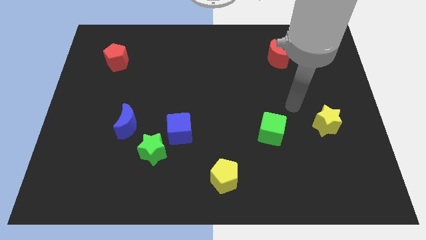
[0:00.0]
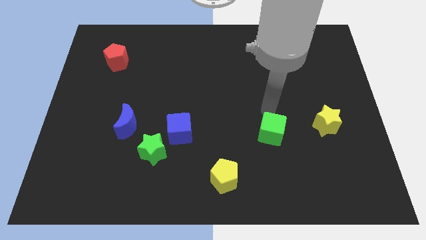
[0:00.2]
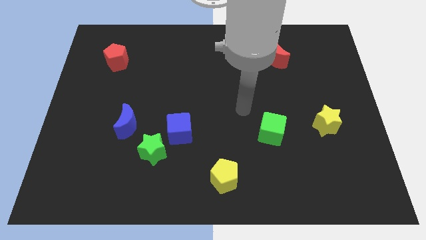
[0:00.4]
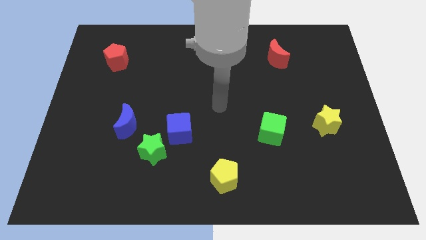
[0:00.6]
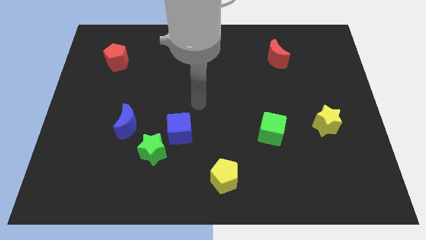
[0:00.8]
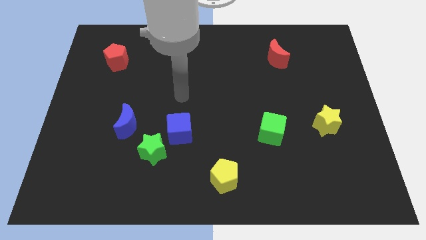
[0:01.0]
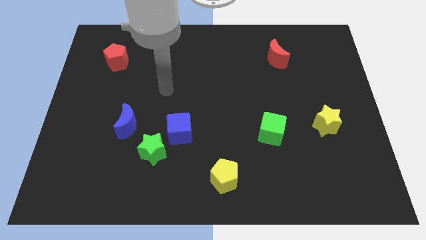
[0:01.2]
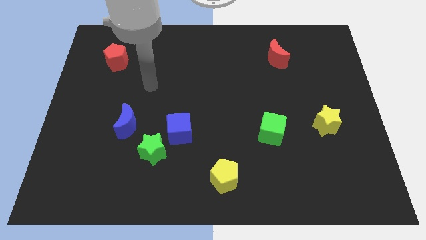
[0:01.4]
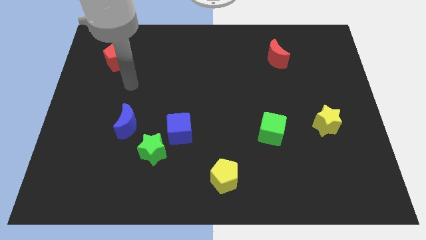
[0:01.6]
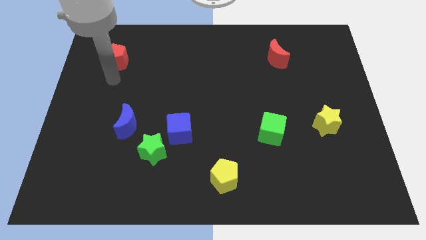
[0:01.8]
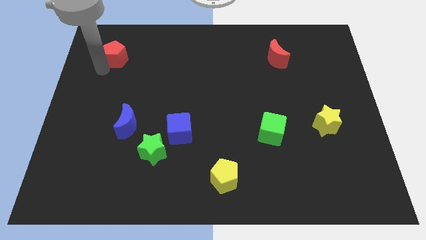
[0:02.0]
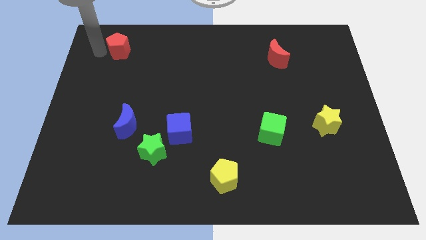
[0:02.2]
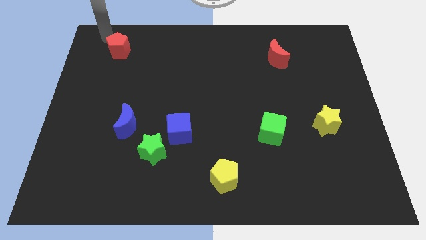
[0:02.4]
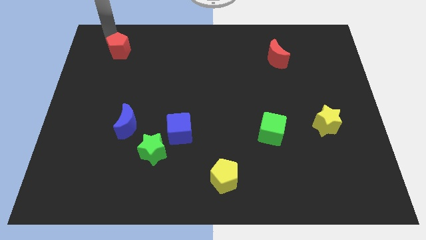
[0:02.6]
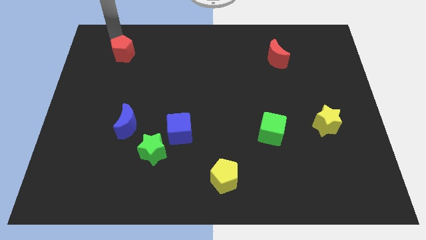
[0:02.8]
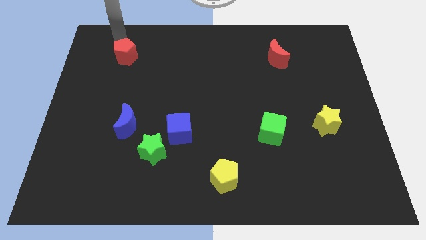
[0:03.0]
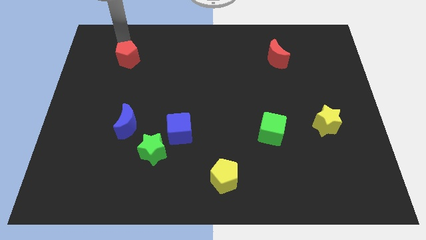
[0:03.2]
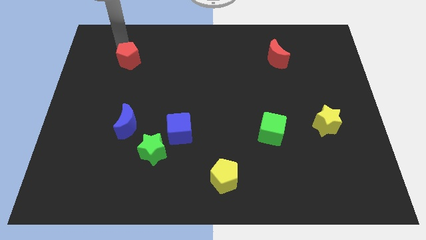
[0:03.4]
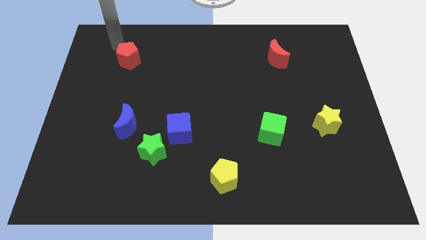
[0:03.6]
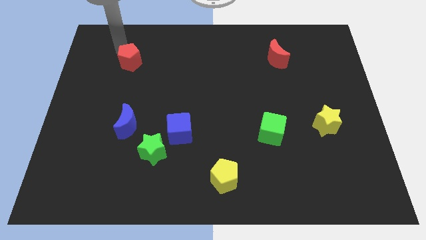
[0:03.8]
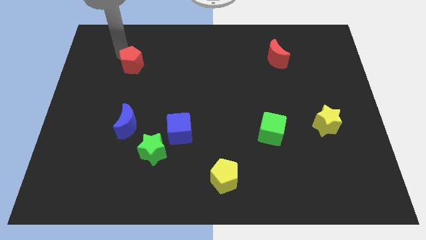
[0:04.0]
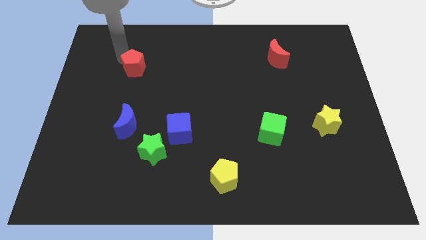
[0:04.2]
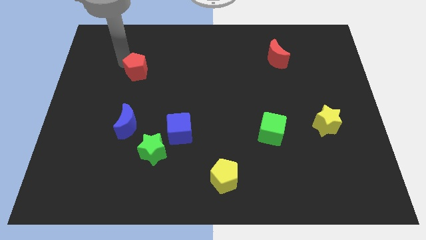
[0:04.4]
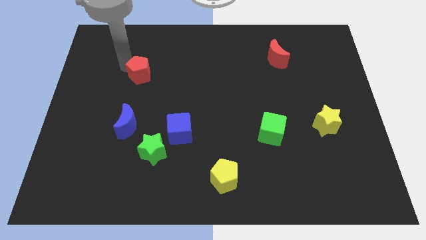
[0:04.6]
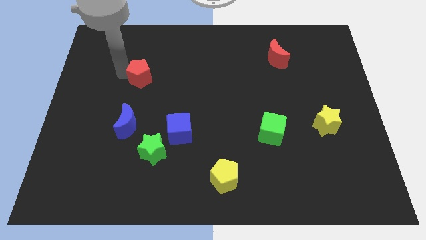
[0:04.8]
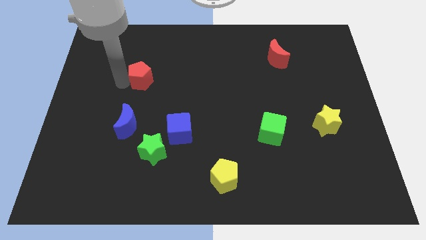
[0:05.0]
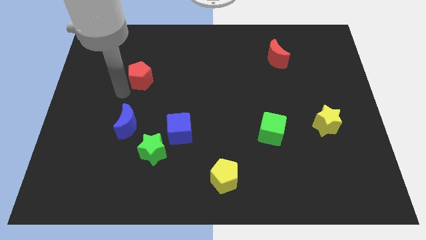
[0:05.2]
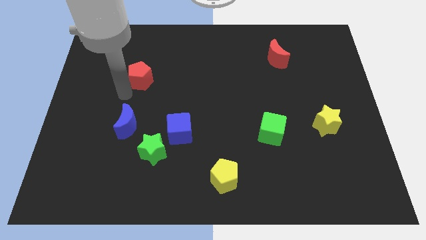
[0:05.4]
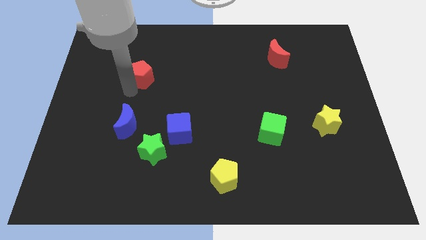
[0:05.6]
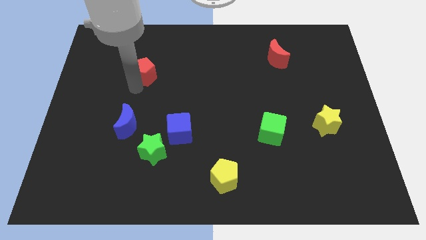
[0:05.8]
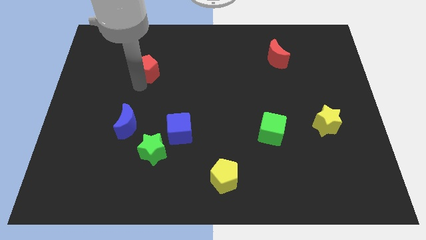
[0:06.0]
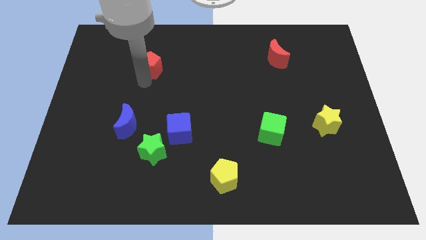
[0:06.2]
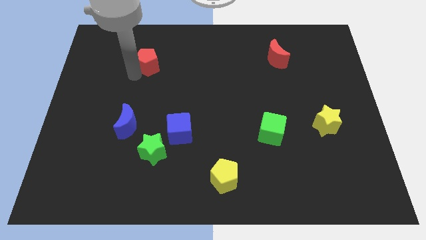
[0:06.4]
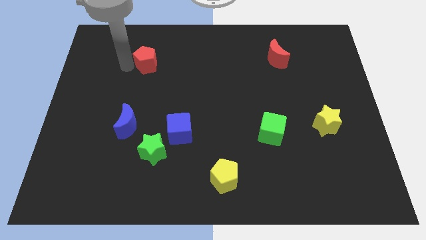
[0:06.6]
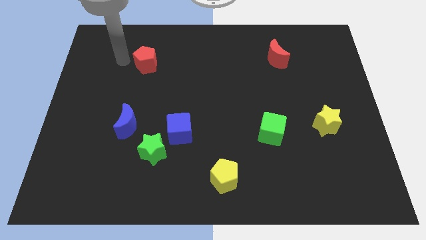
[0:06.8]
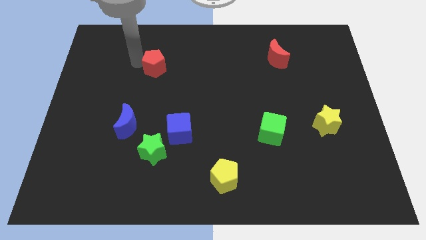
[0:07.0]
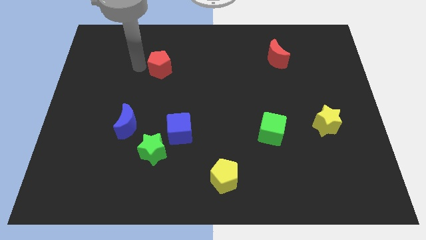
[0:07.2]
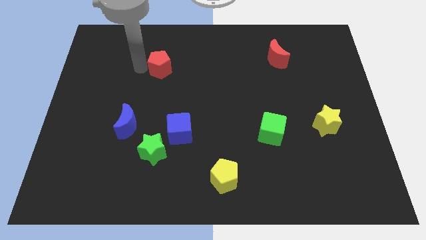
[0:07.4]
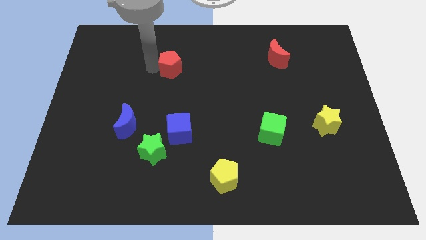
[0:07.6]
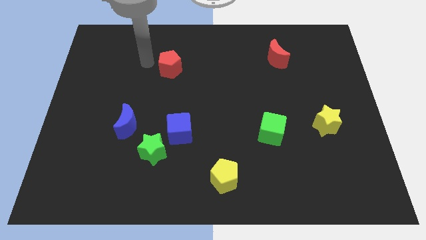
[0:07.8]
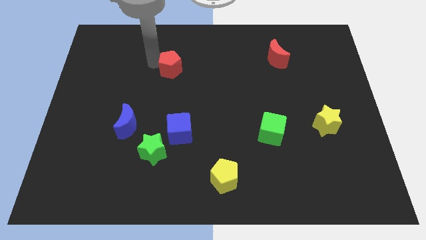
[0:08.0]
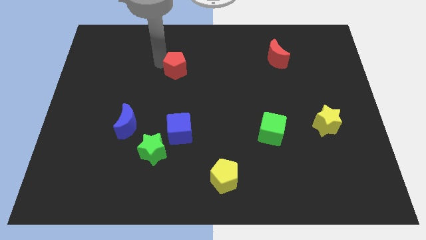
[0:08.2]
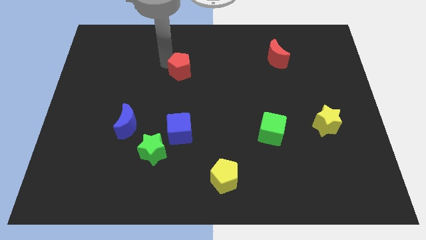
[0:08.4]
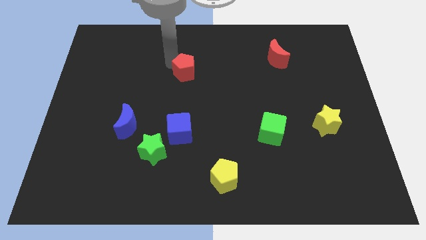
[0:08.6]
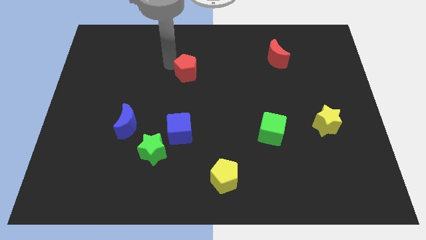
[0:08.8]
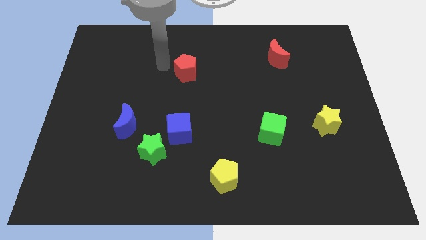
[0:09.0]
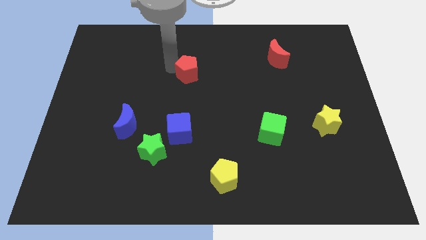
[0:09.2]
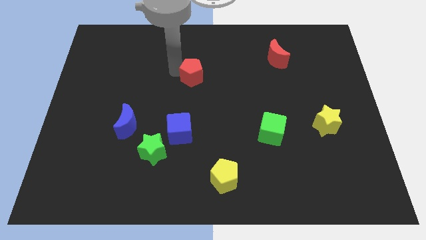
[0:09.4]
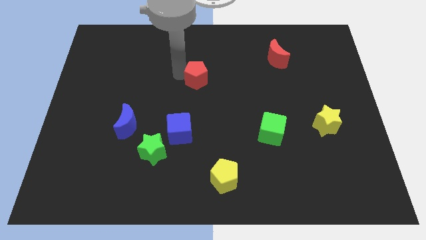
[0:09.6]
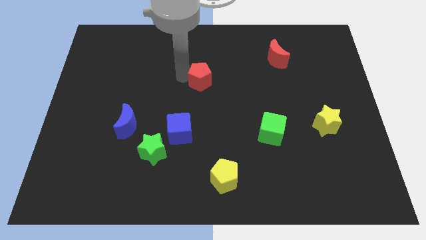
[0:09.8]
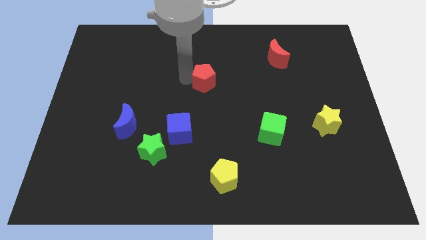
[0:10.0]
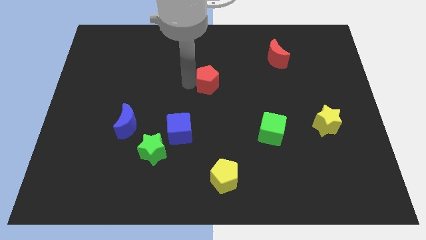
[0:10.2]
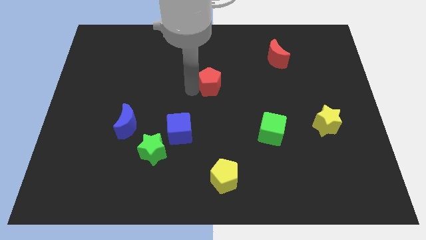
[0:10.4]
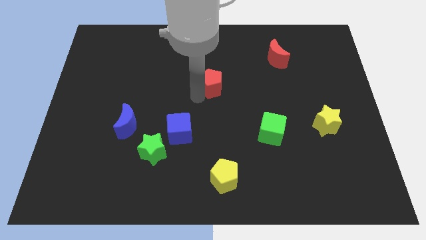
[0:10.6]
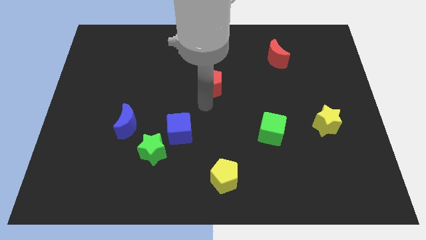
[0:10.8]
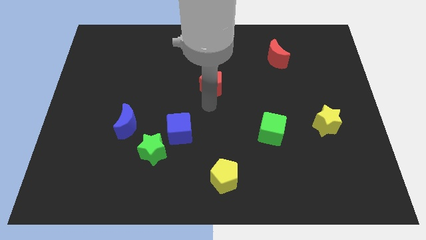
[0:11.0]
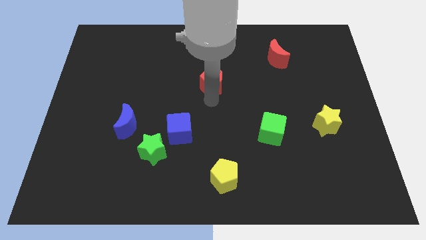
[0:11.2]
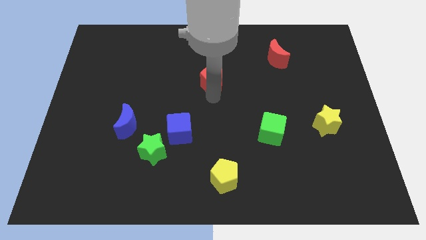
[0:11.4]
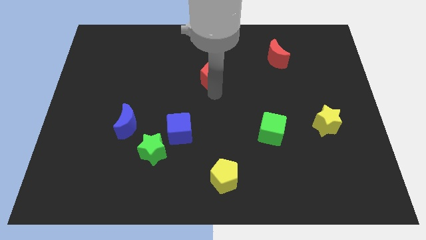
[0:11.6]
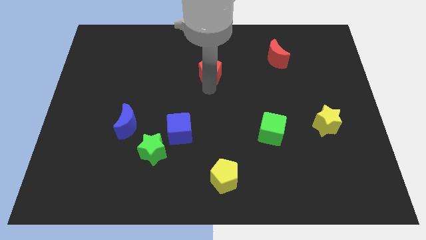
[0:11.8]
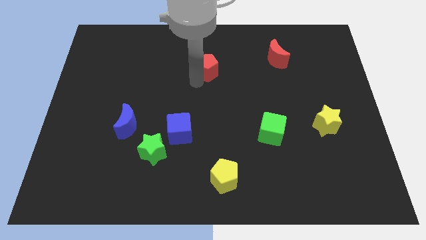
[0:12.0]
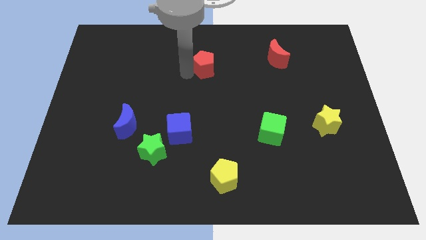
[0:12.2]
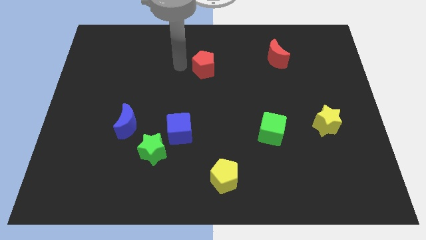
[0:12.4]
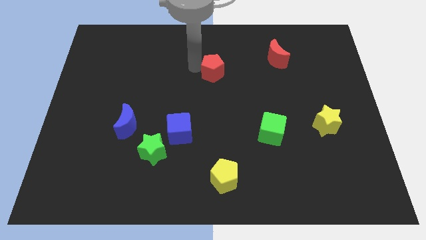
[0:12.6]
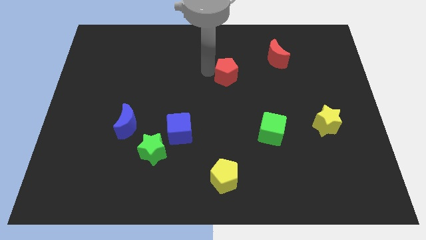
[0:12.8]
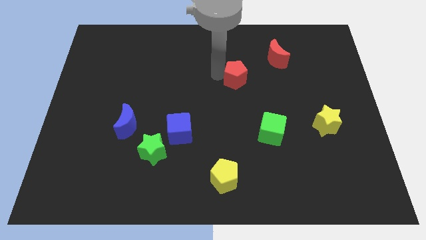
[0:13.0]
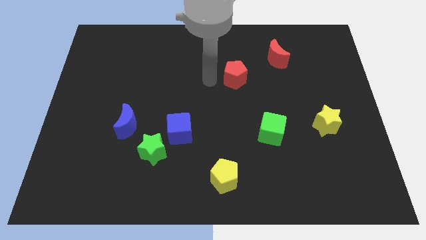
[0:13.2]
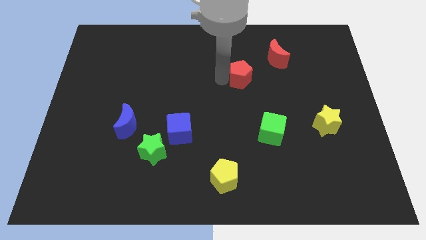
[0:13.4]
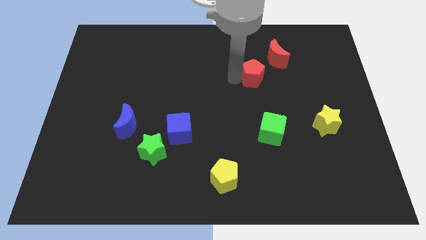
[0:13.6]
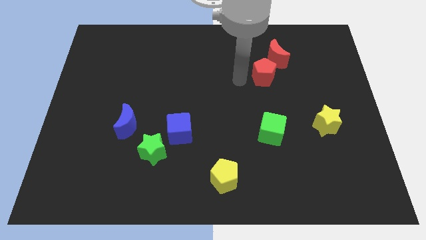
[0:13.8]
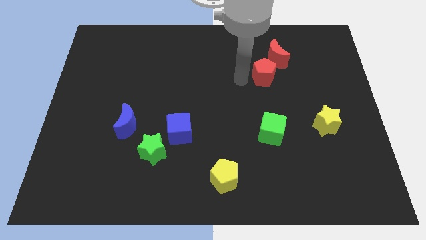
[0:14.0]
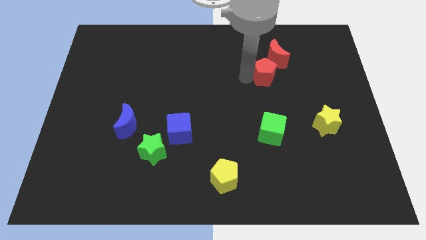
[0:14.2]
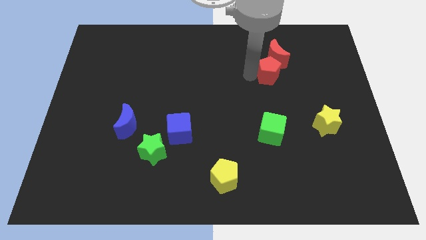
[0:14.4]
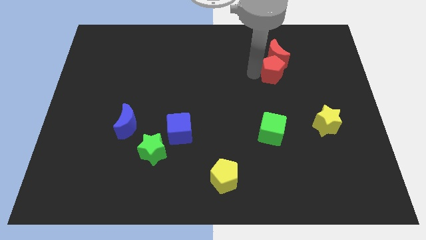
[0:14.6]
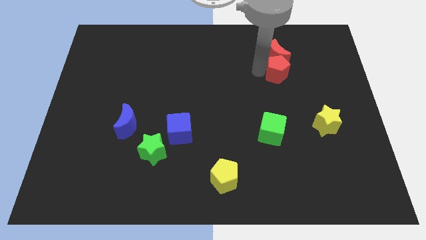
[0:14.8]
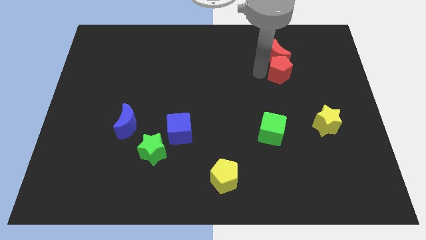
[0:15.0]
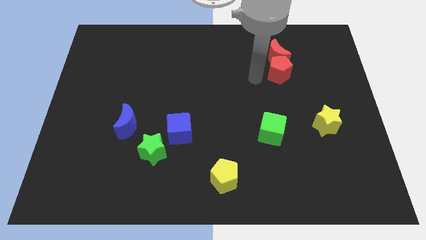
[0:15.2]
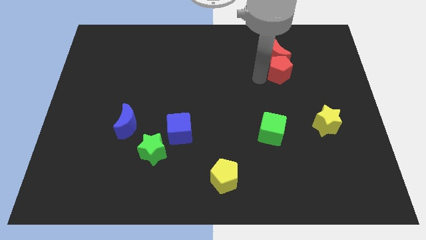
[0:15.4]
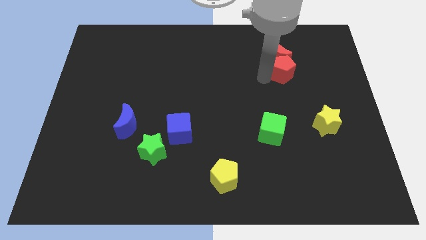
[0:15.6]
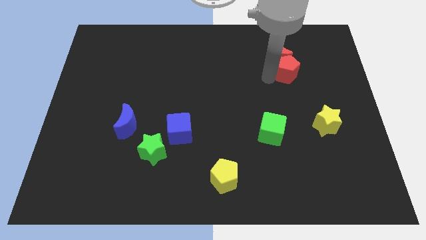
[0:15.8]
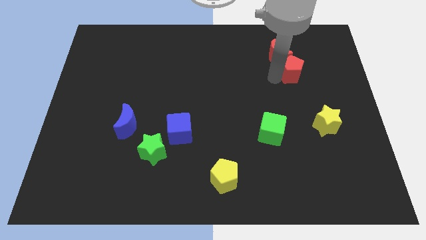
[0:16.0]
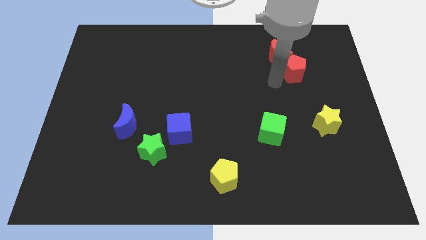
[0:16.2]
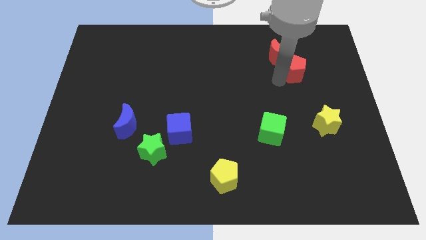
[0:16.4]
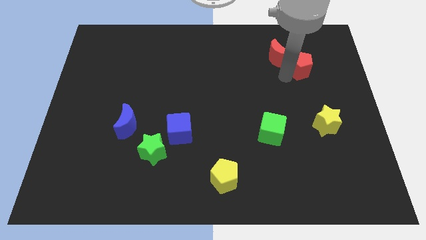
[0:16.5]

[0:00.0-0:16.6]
move the red pentagon just right of the red moon
